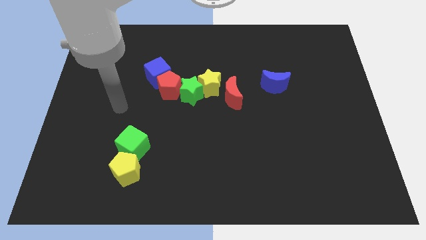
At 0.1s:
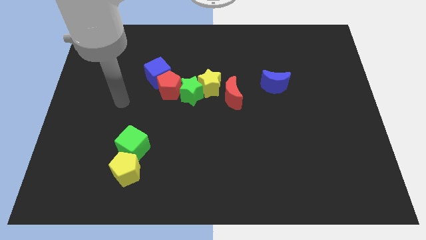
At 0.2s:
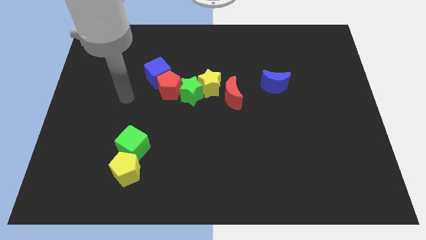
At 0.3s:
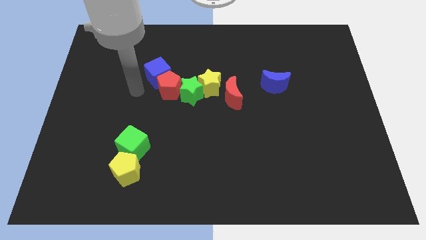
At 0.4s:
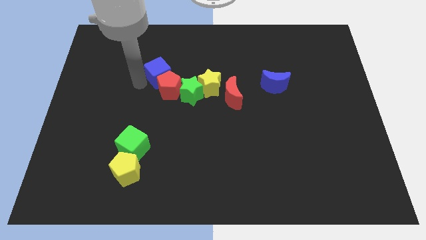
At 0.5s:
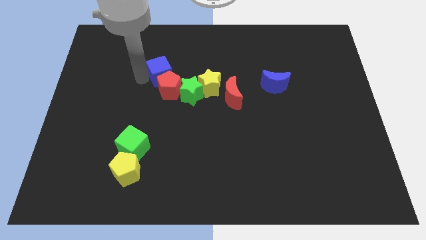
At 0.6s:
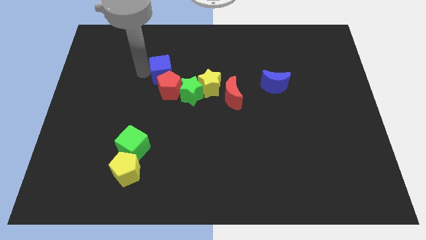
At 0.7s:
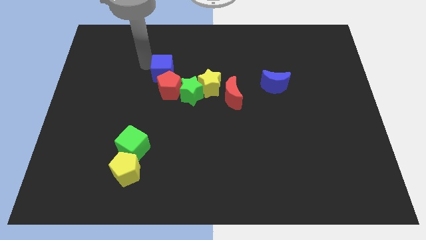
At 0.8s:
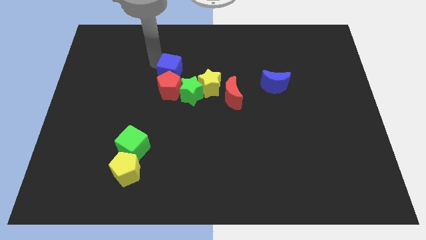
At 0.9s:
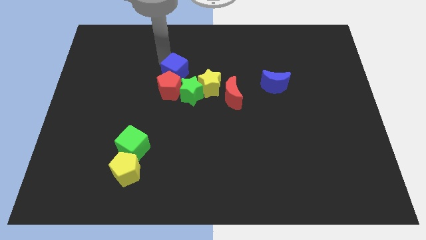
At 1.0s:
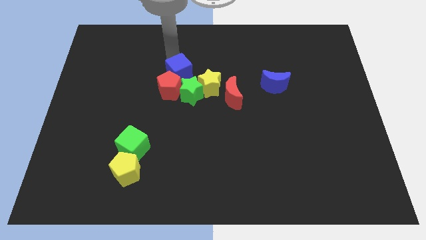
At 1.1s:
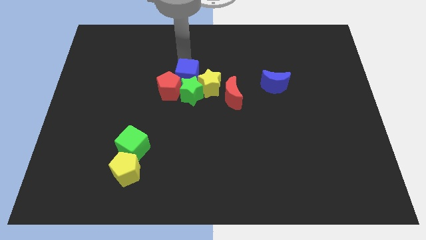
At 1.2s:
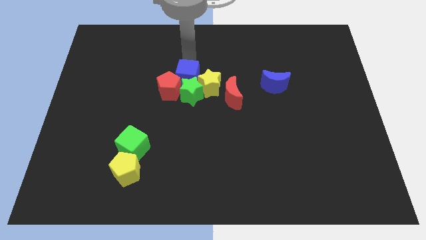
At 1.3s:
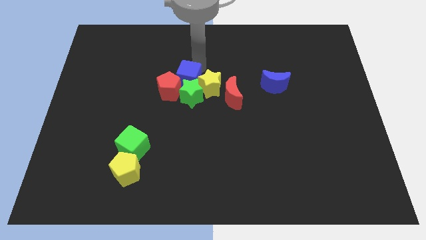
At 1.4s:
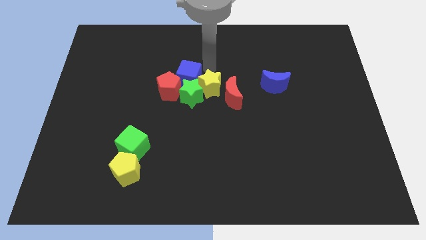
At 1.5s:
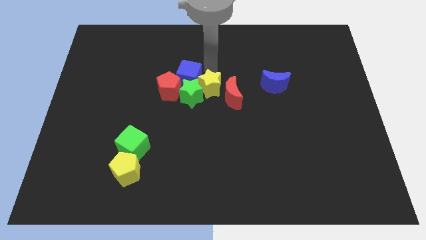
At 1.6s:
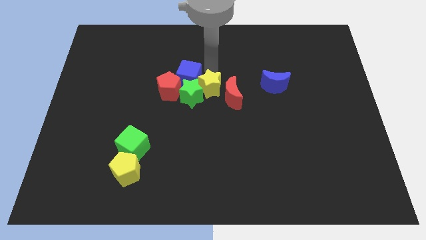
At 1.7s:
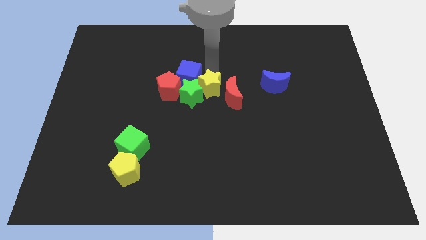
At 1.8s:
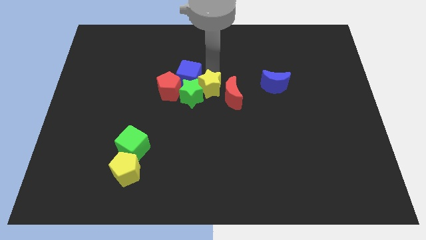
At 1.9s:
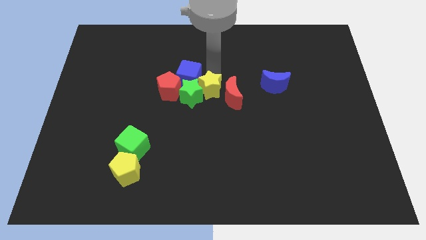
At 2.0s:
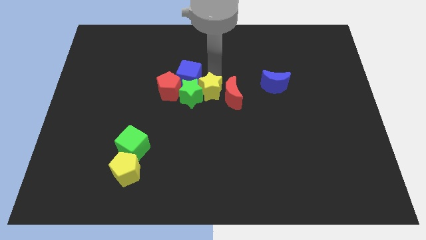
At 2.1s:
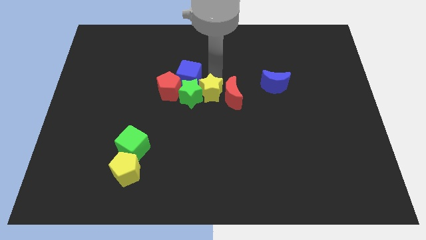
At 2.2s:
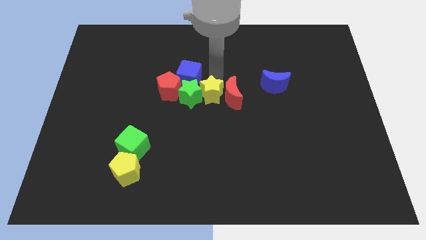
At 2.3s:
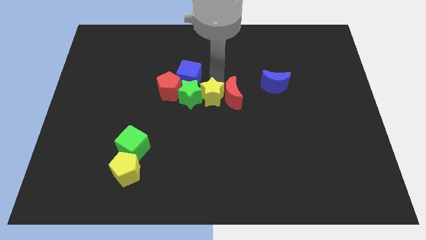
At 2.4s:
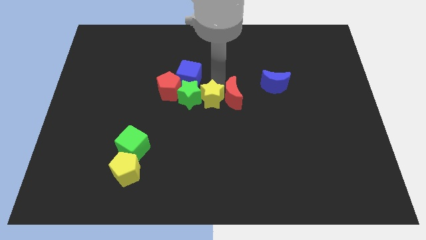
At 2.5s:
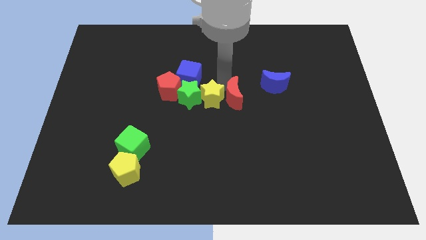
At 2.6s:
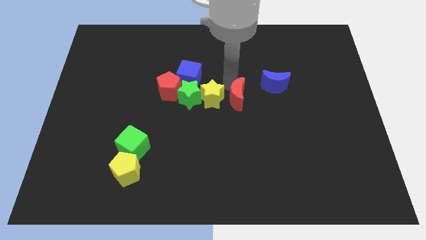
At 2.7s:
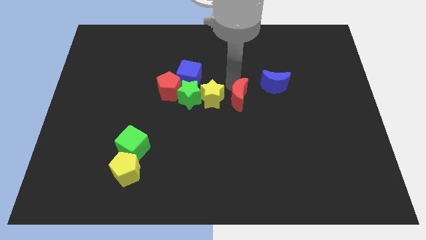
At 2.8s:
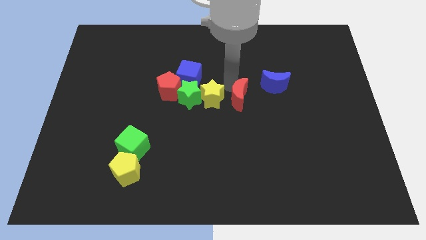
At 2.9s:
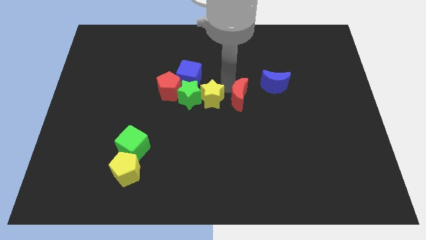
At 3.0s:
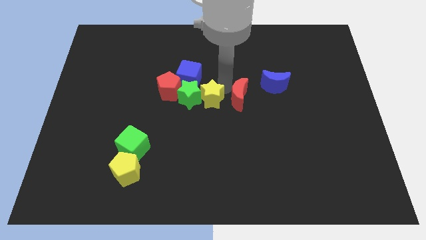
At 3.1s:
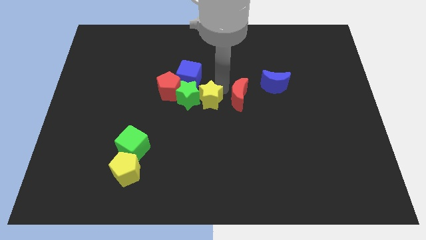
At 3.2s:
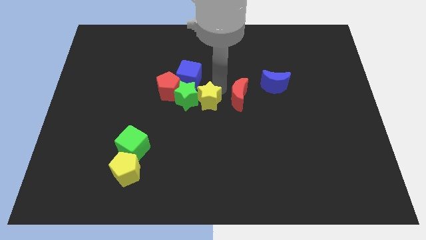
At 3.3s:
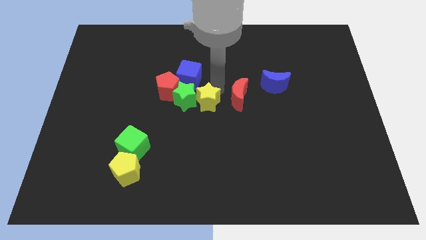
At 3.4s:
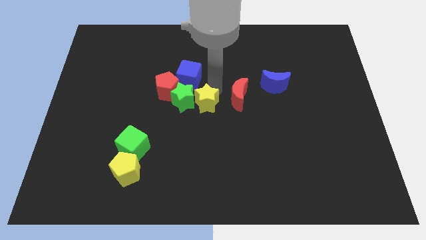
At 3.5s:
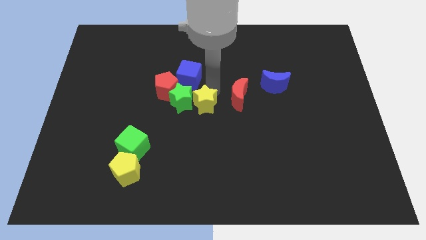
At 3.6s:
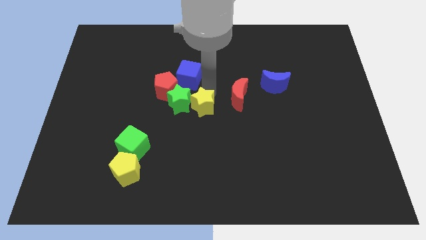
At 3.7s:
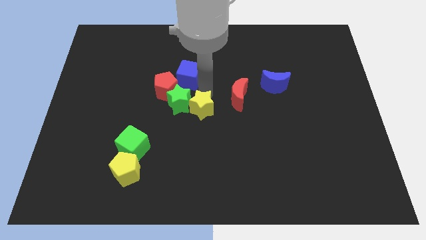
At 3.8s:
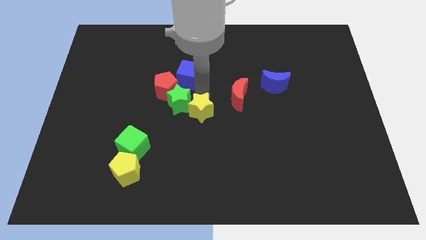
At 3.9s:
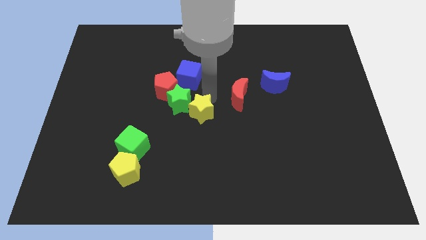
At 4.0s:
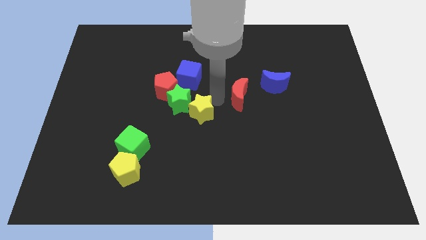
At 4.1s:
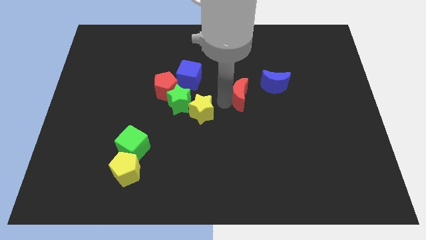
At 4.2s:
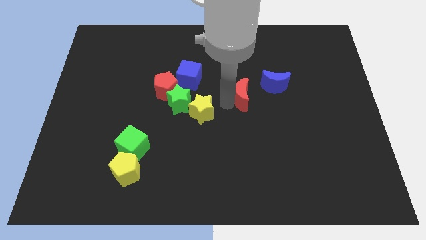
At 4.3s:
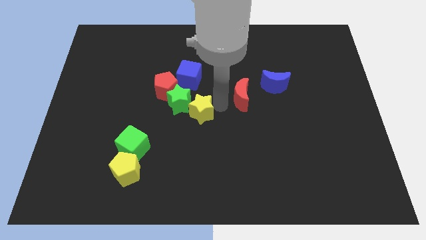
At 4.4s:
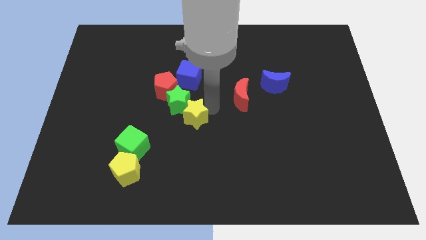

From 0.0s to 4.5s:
move the yellow star down and then to the left a little

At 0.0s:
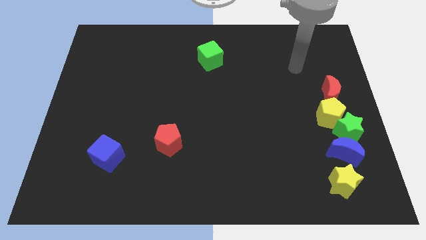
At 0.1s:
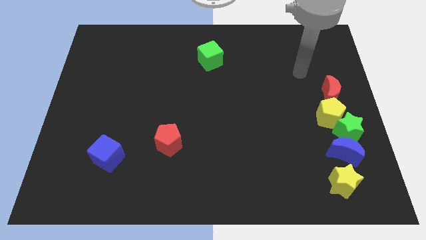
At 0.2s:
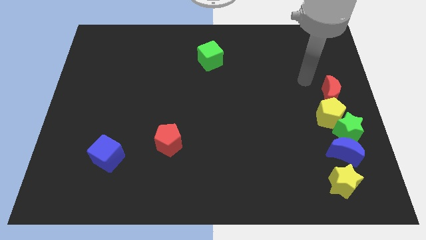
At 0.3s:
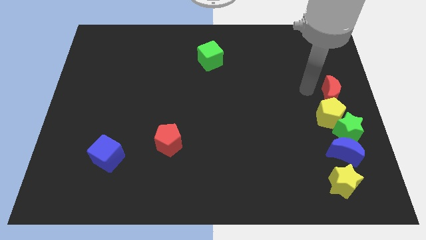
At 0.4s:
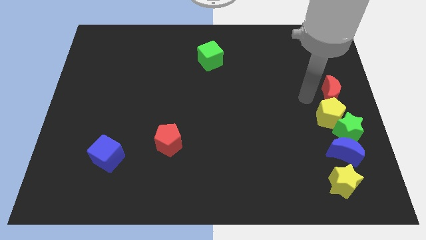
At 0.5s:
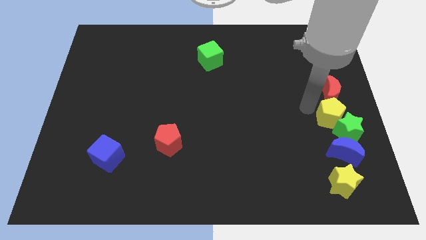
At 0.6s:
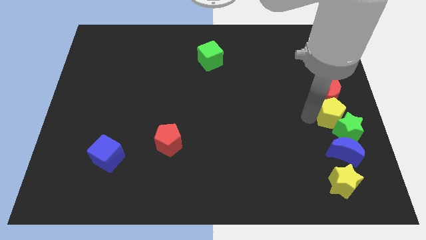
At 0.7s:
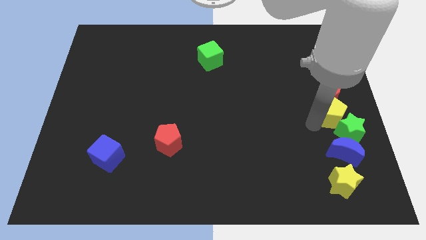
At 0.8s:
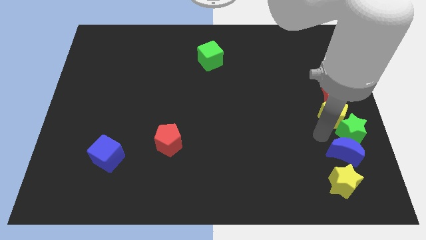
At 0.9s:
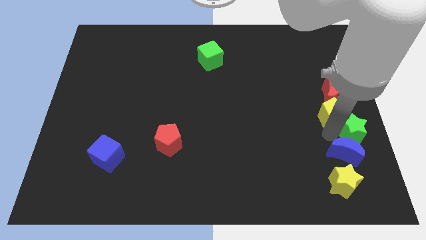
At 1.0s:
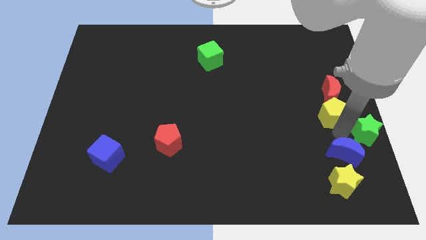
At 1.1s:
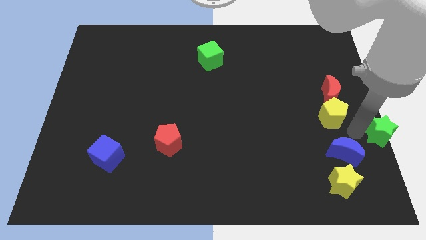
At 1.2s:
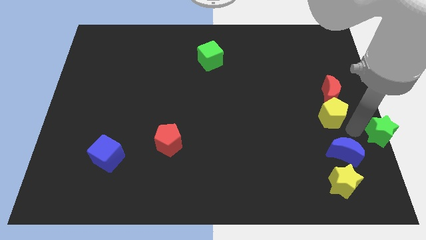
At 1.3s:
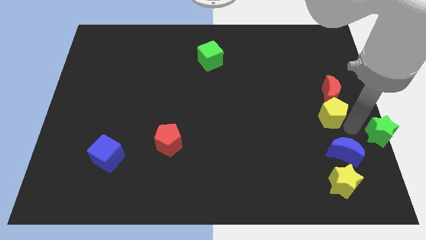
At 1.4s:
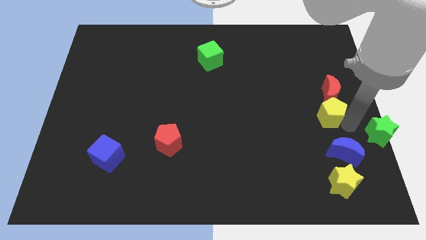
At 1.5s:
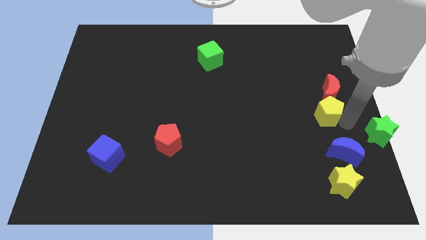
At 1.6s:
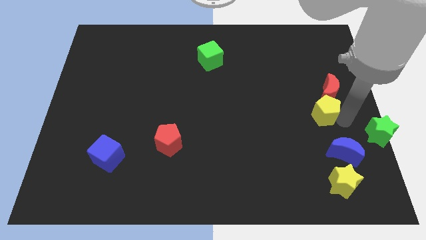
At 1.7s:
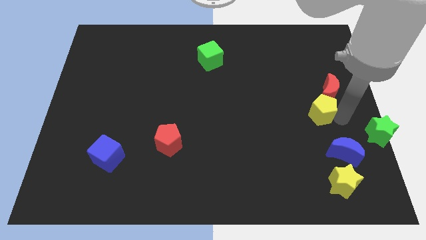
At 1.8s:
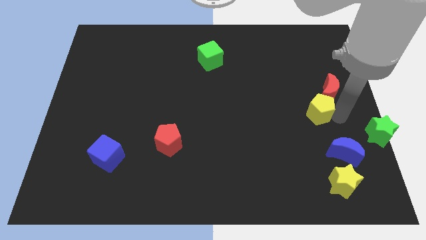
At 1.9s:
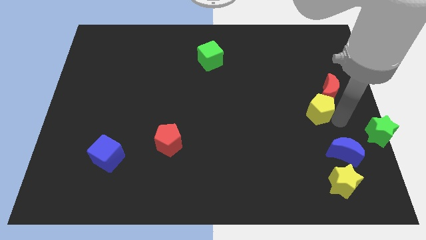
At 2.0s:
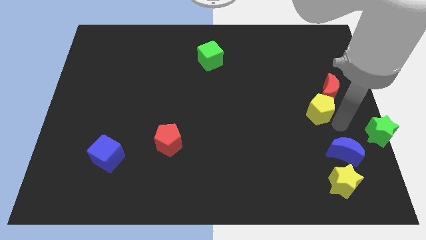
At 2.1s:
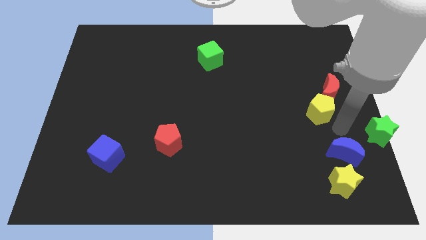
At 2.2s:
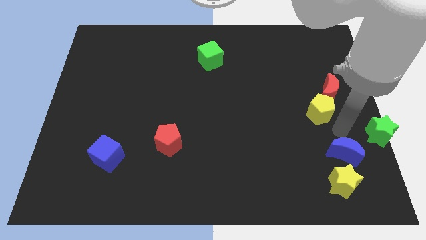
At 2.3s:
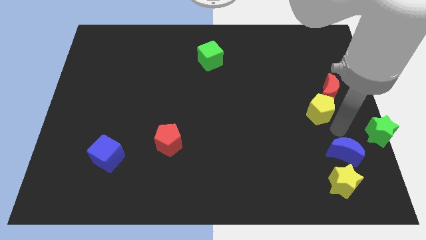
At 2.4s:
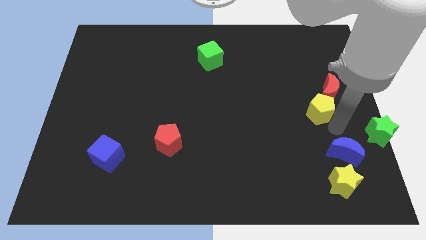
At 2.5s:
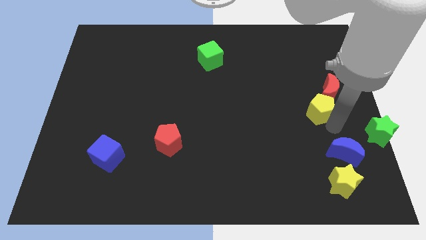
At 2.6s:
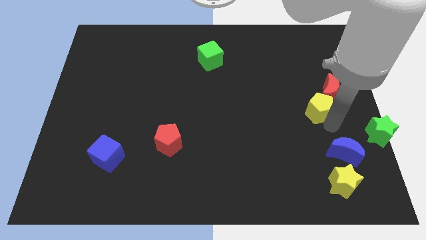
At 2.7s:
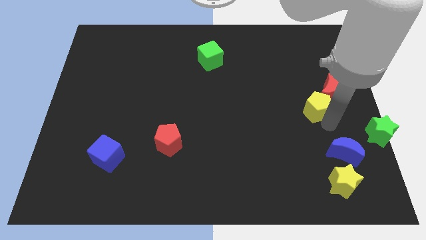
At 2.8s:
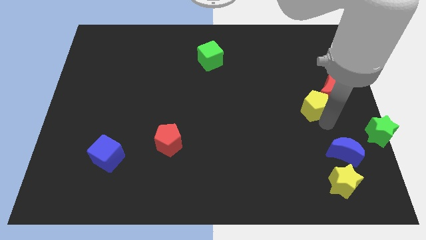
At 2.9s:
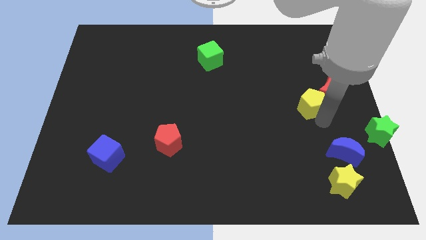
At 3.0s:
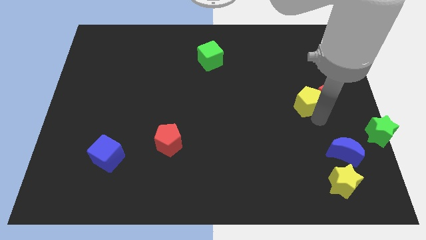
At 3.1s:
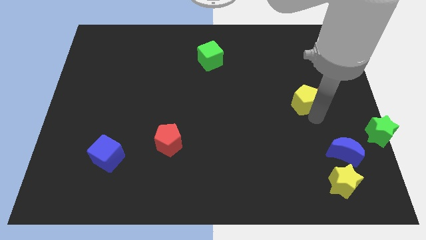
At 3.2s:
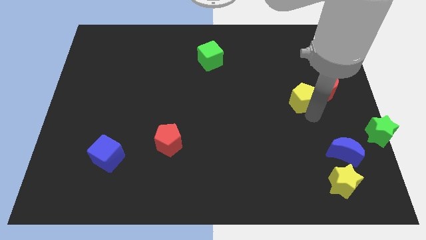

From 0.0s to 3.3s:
slightly move the yellow pentagon upwards and then to the left

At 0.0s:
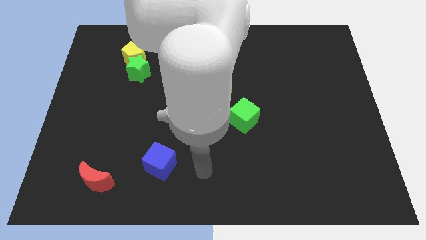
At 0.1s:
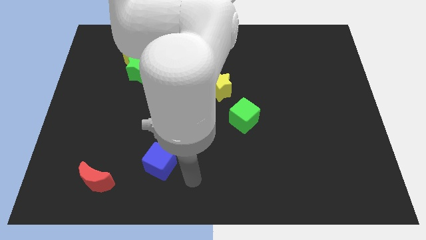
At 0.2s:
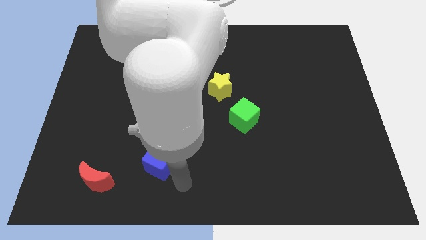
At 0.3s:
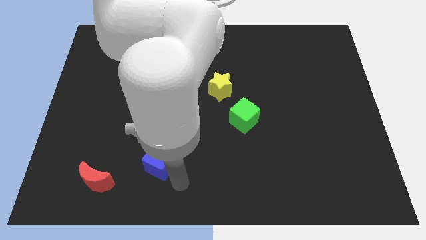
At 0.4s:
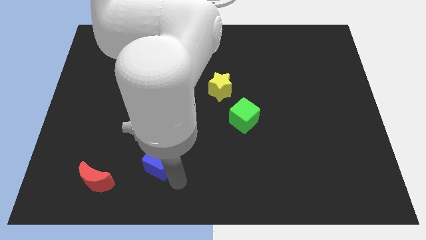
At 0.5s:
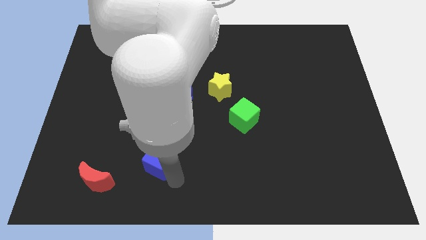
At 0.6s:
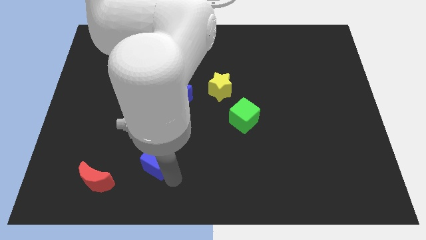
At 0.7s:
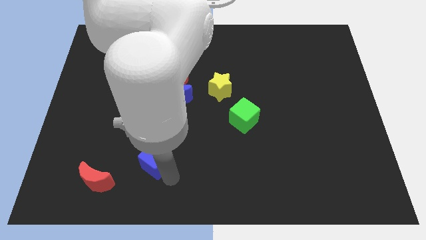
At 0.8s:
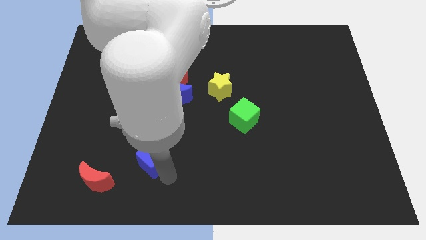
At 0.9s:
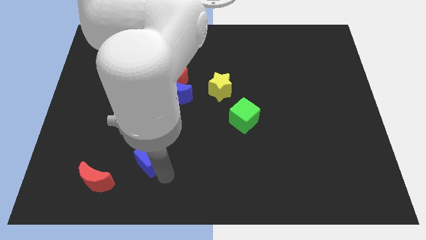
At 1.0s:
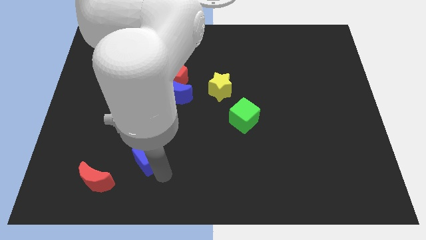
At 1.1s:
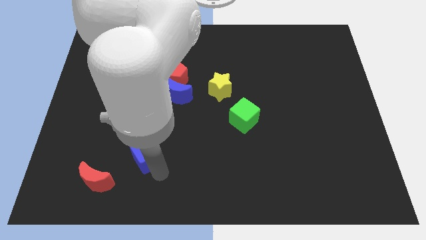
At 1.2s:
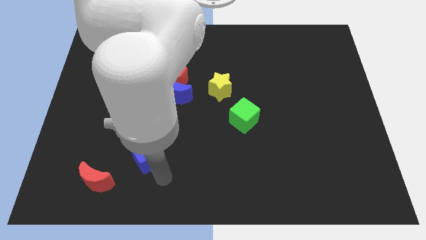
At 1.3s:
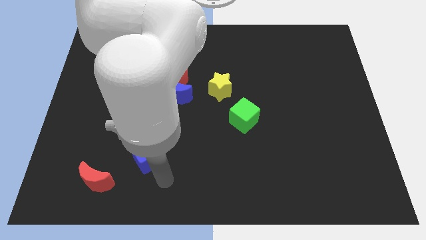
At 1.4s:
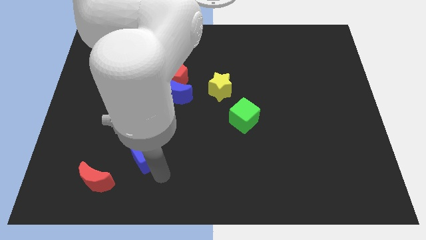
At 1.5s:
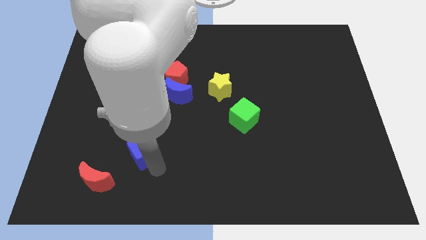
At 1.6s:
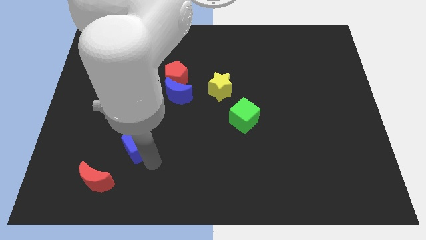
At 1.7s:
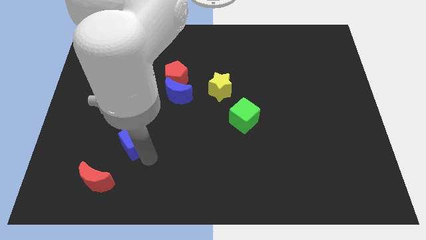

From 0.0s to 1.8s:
push the blue cube somewhat up and left diagonally
